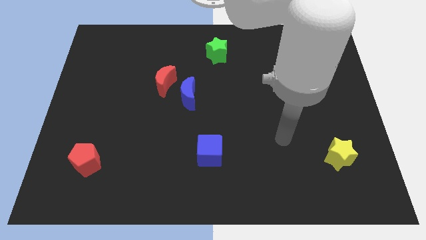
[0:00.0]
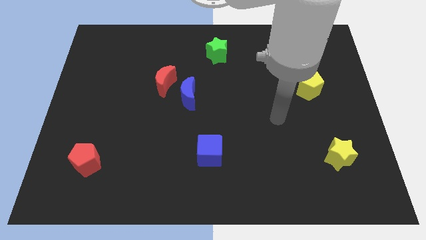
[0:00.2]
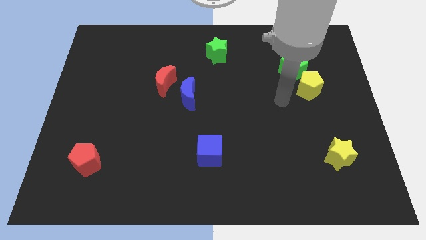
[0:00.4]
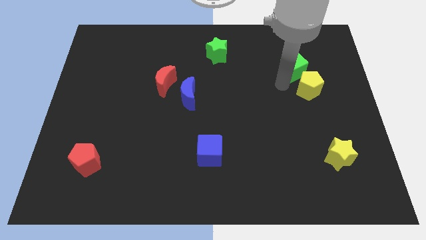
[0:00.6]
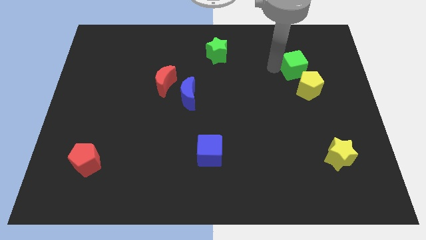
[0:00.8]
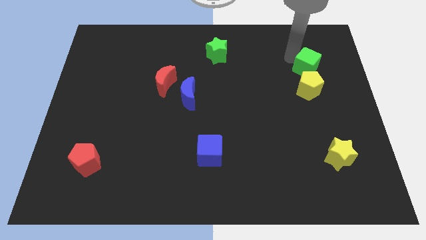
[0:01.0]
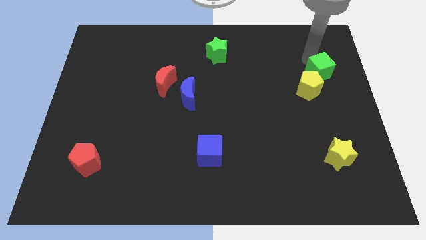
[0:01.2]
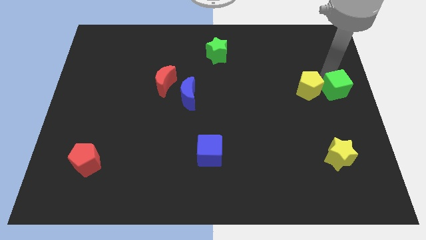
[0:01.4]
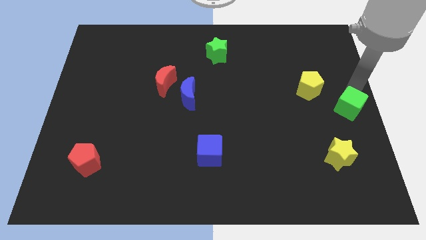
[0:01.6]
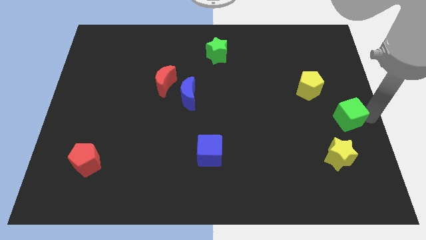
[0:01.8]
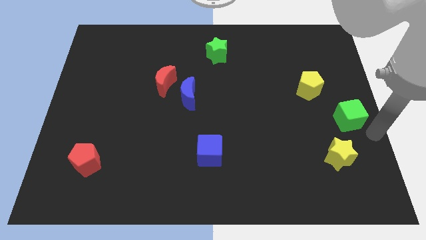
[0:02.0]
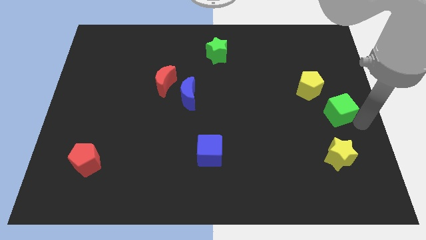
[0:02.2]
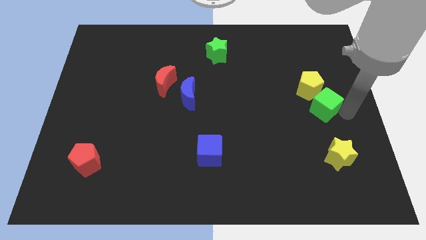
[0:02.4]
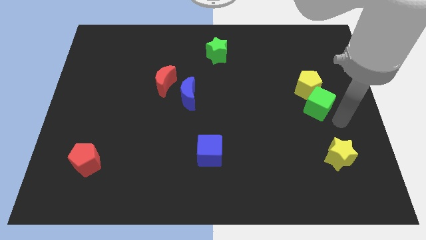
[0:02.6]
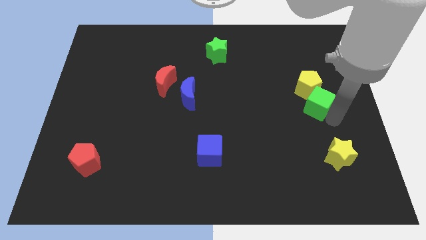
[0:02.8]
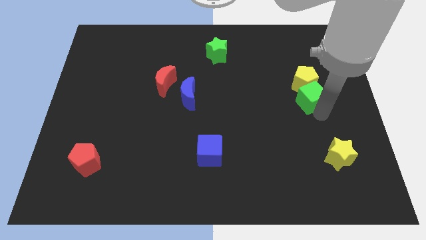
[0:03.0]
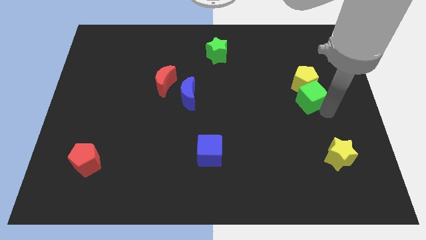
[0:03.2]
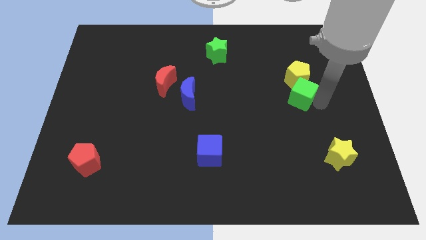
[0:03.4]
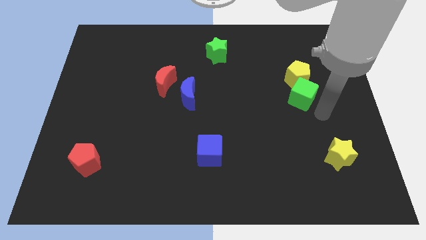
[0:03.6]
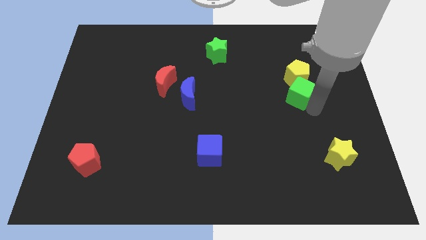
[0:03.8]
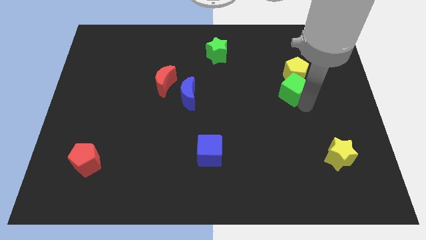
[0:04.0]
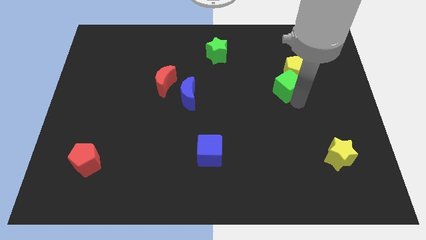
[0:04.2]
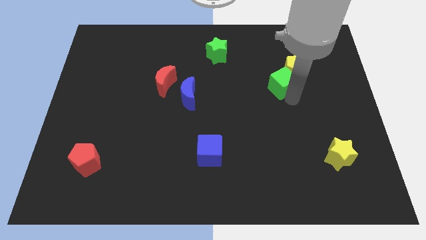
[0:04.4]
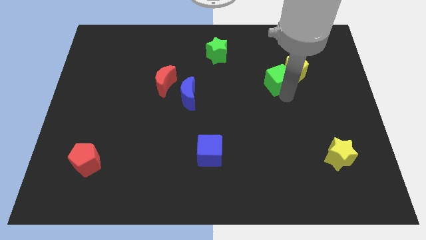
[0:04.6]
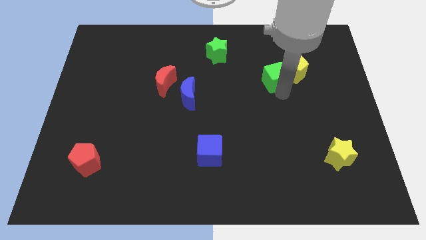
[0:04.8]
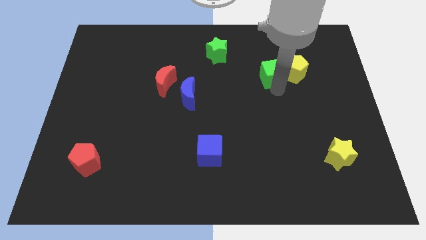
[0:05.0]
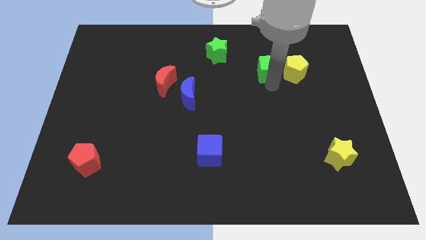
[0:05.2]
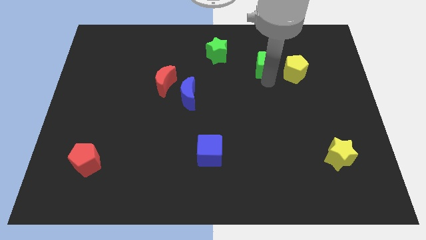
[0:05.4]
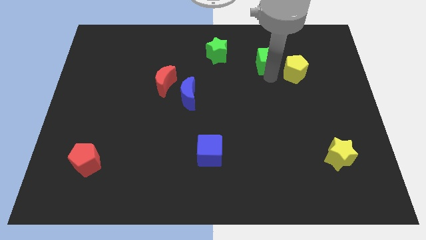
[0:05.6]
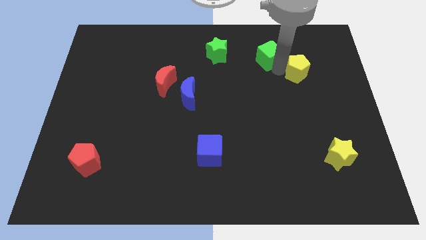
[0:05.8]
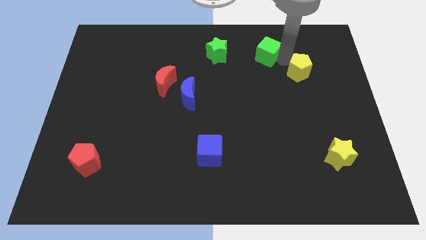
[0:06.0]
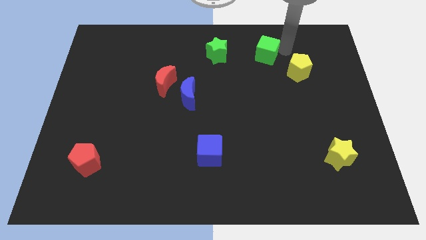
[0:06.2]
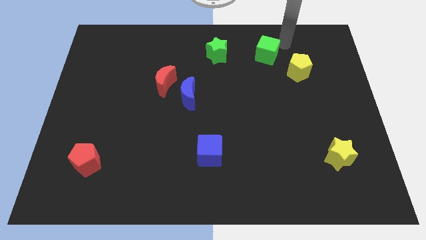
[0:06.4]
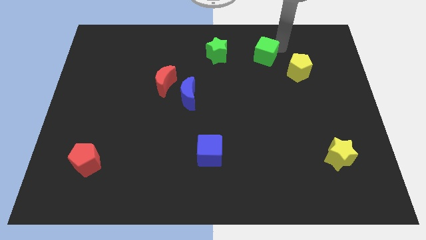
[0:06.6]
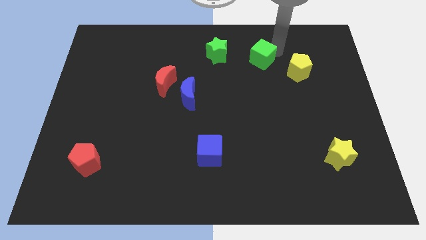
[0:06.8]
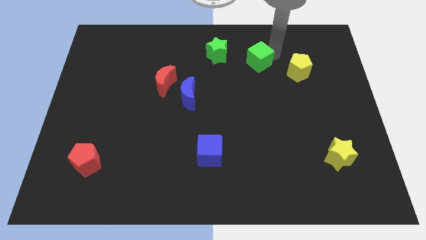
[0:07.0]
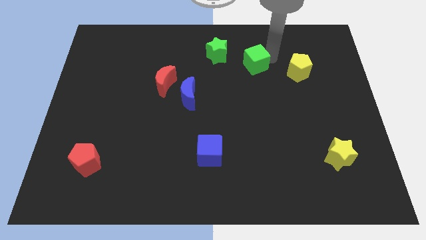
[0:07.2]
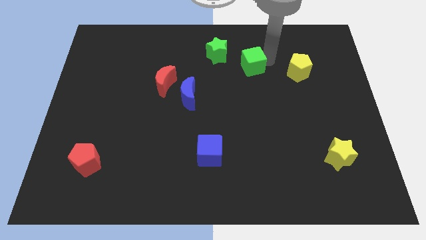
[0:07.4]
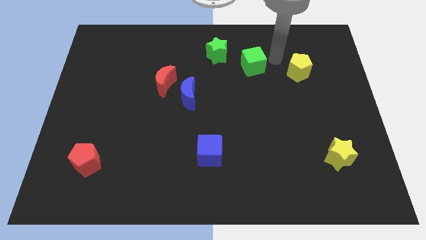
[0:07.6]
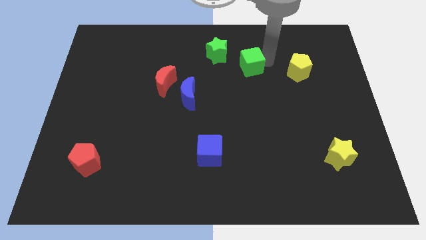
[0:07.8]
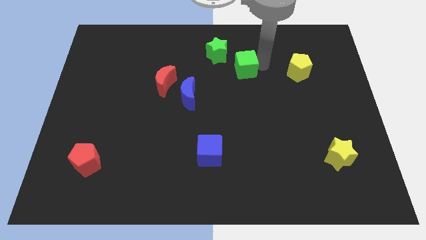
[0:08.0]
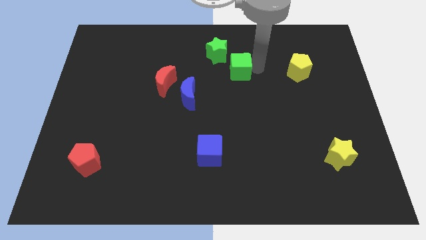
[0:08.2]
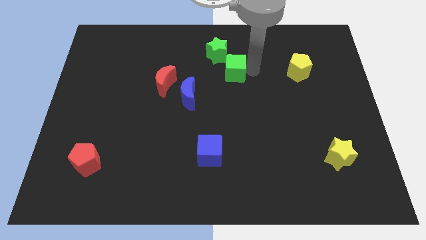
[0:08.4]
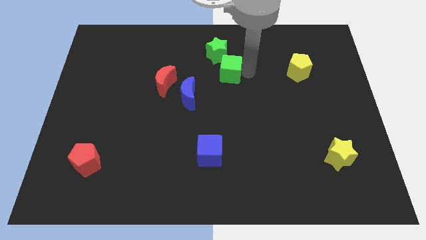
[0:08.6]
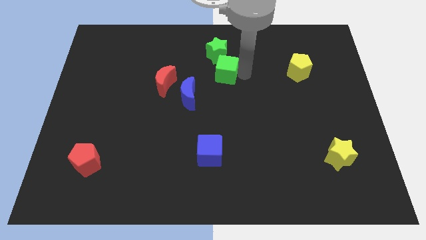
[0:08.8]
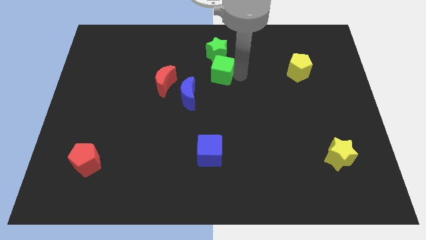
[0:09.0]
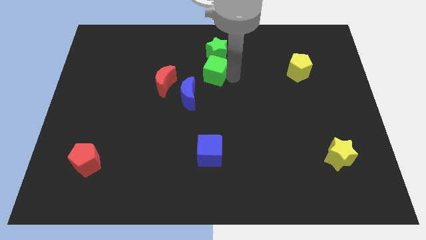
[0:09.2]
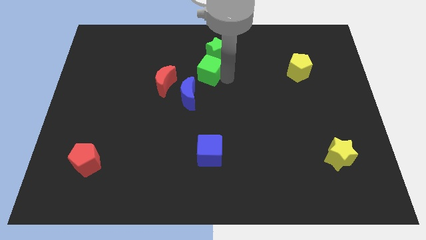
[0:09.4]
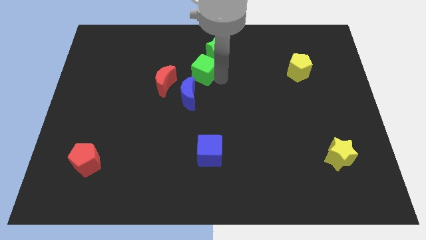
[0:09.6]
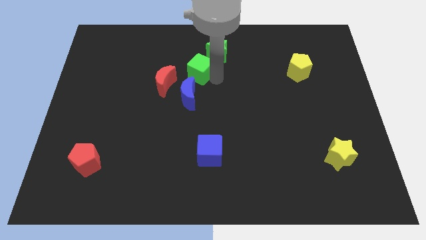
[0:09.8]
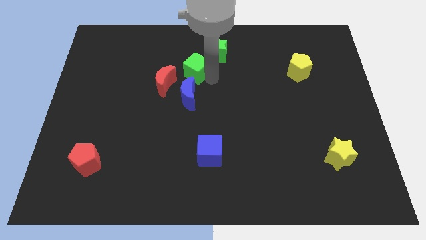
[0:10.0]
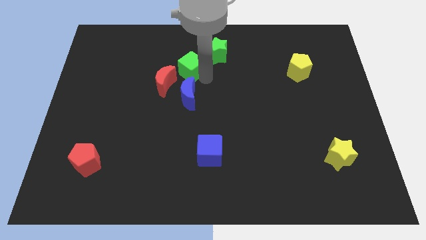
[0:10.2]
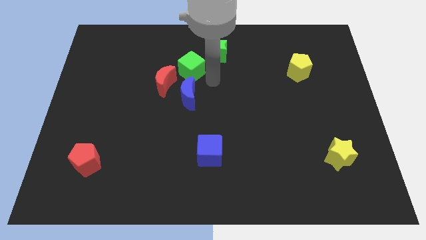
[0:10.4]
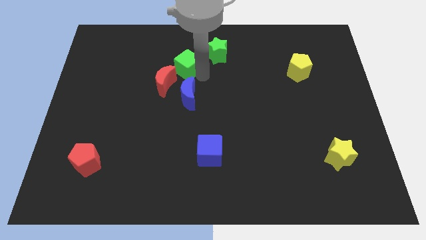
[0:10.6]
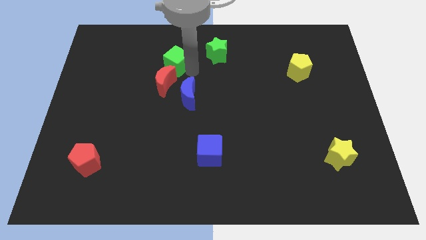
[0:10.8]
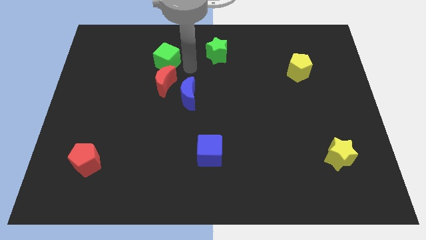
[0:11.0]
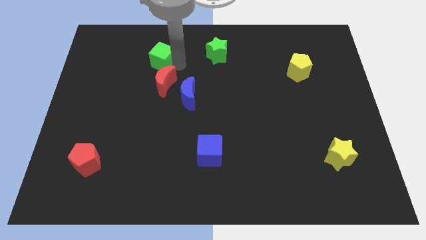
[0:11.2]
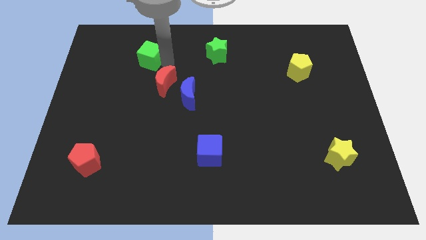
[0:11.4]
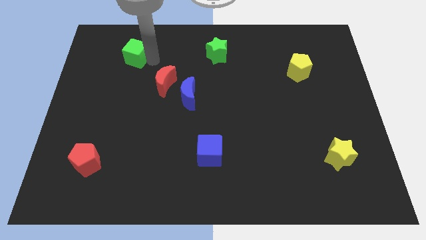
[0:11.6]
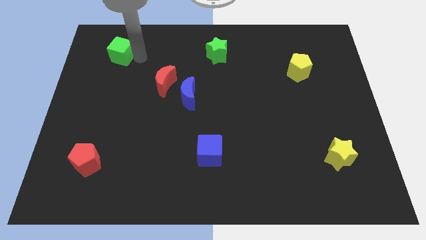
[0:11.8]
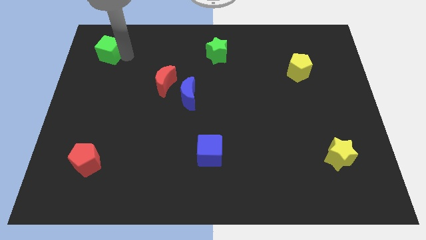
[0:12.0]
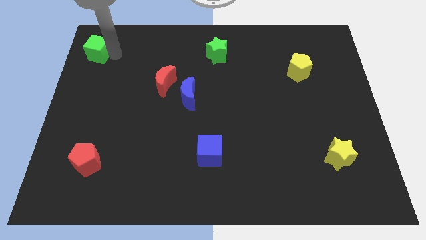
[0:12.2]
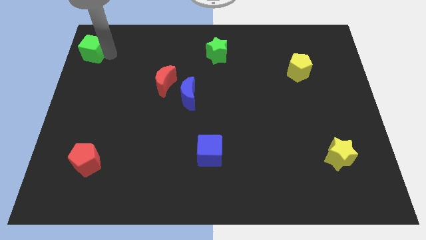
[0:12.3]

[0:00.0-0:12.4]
slide the green cube to the top left of the board
